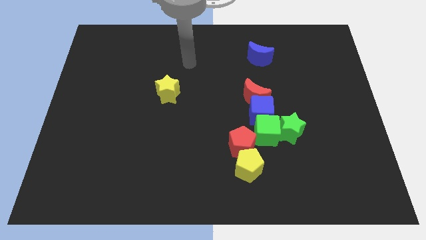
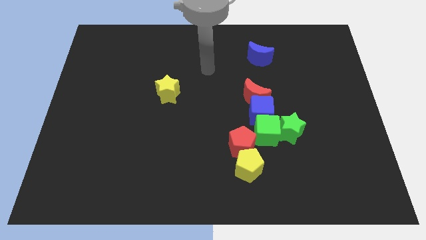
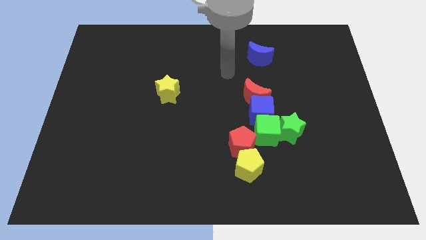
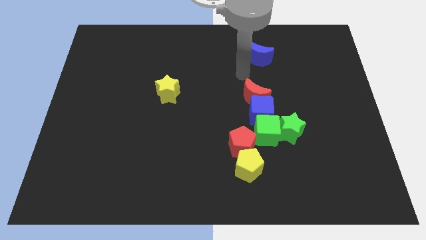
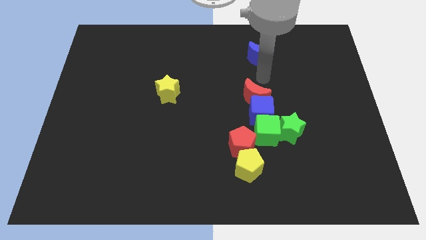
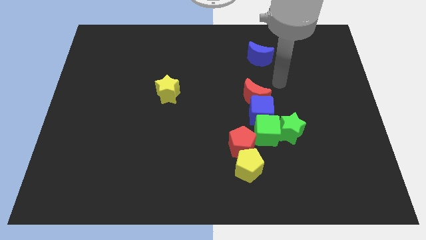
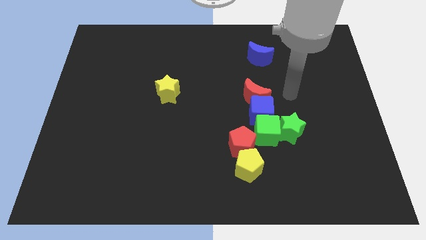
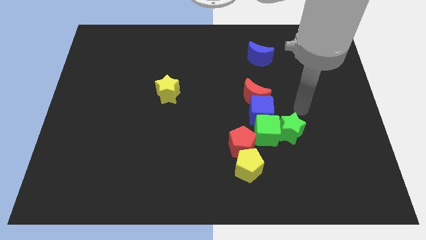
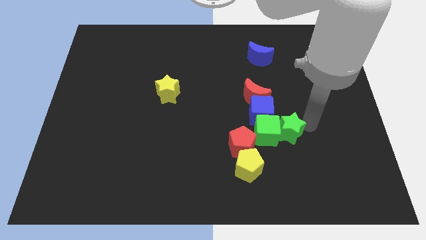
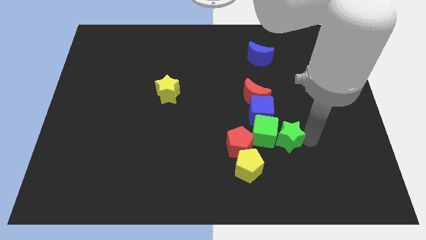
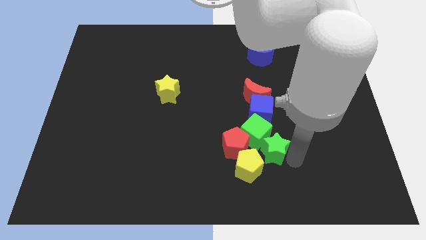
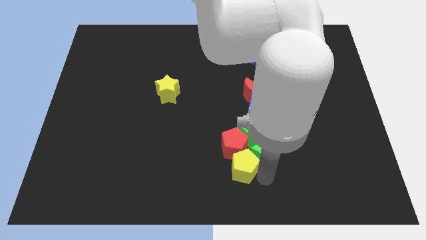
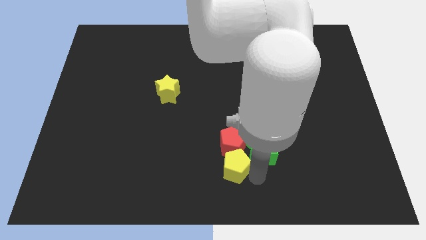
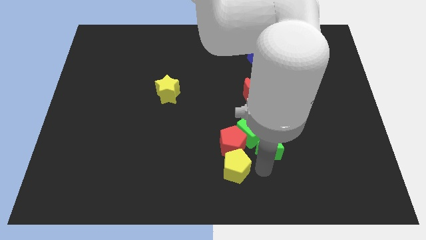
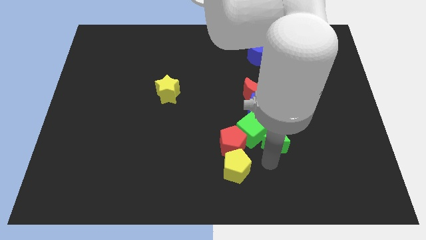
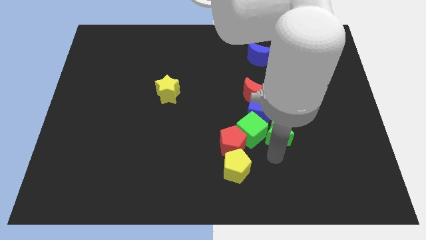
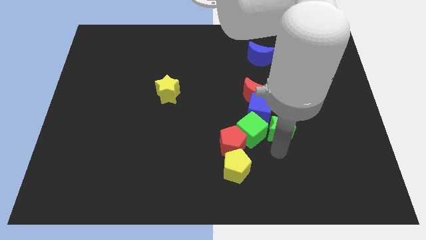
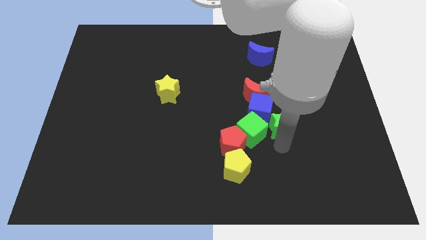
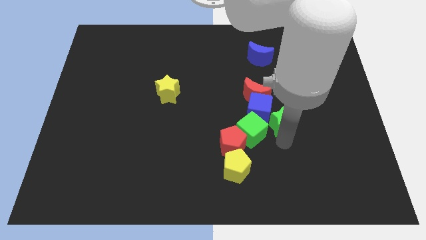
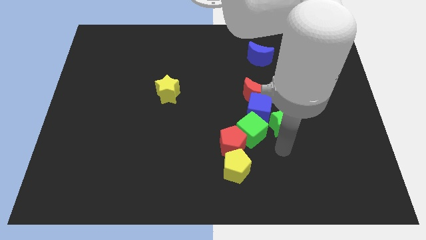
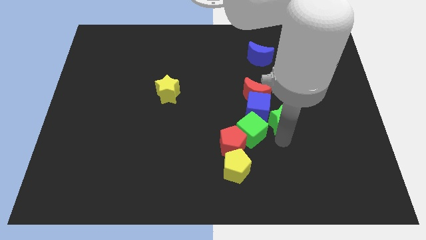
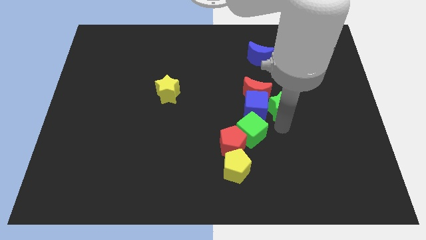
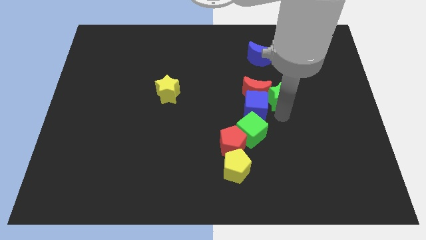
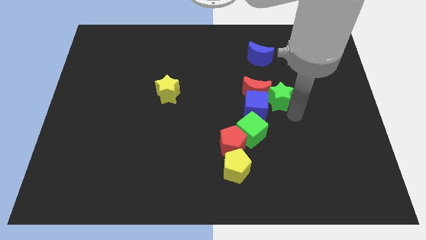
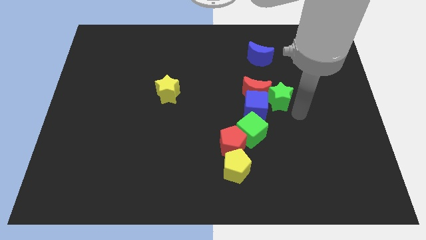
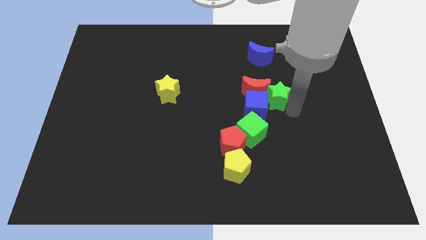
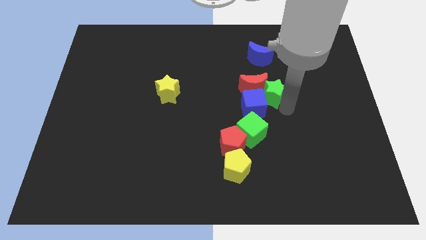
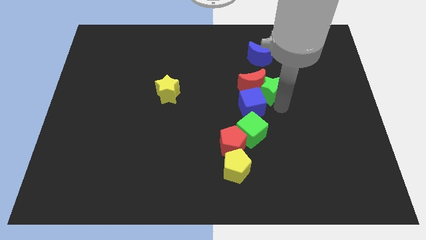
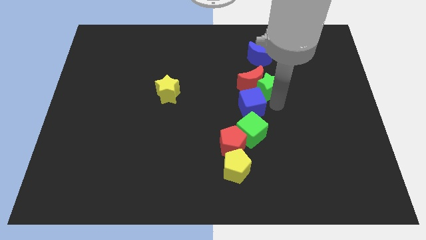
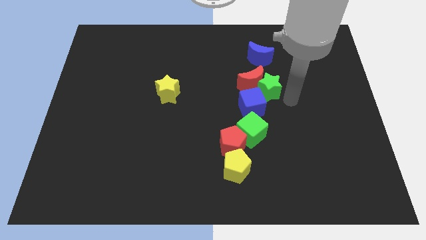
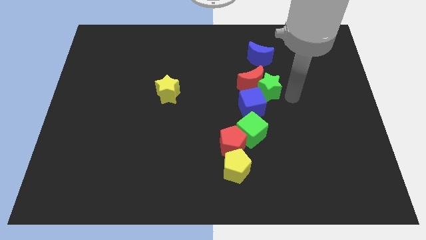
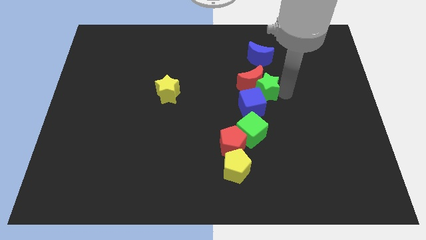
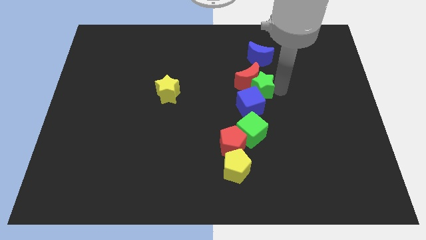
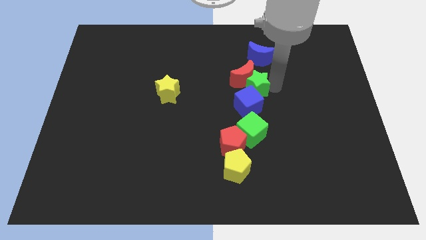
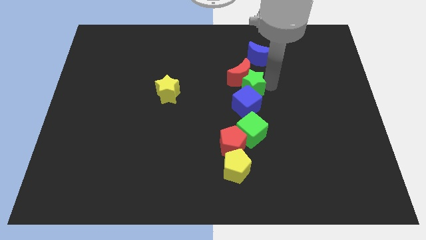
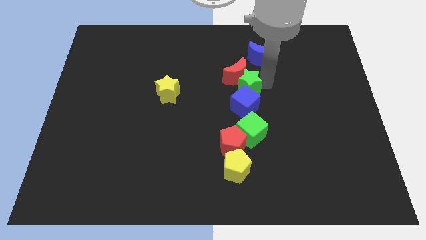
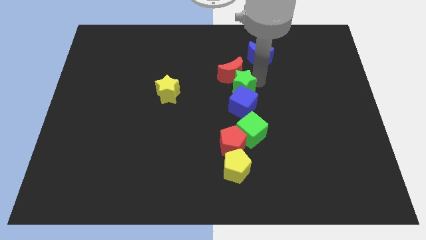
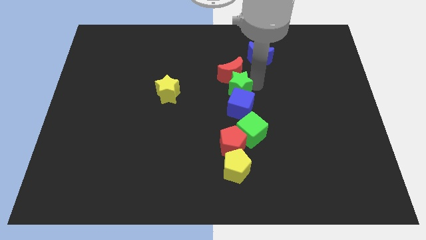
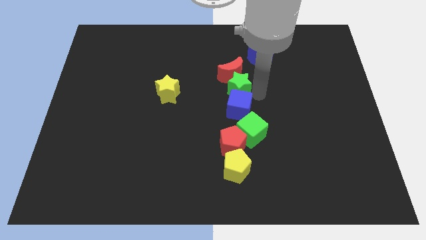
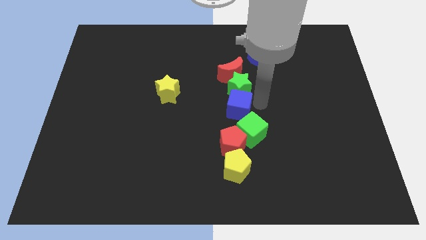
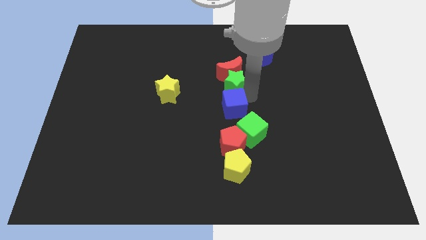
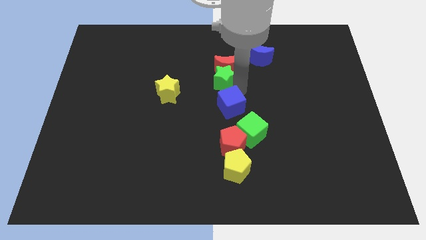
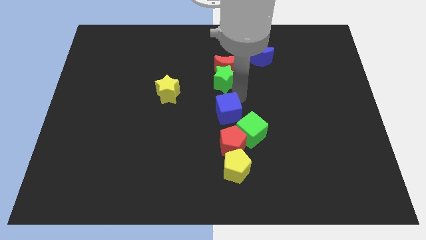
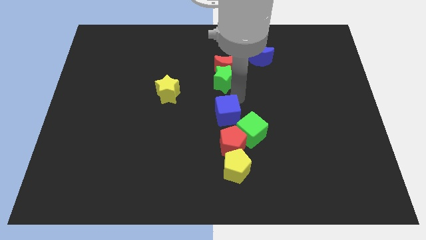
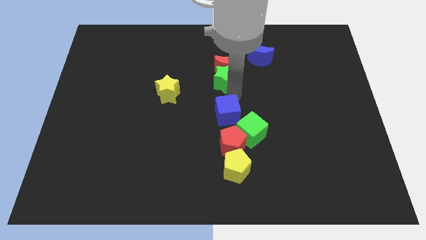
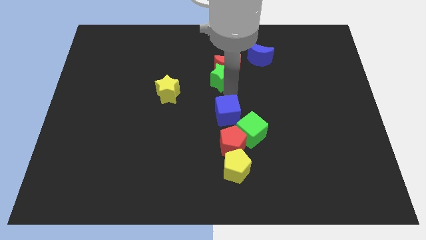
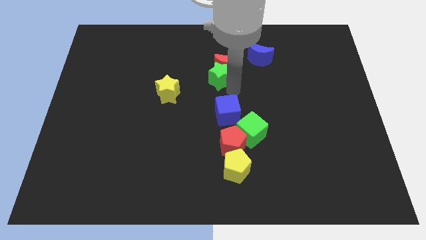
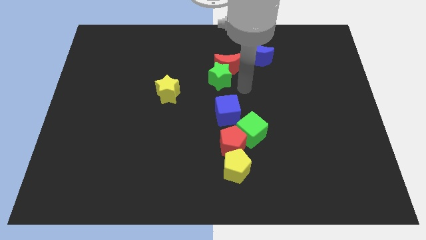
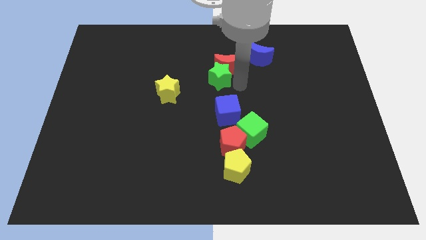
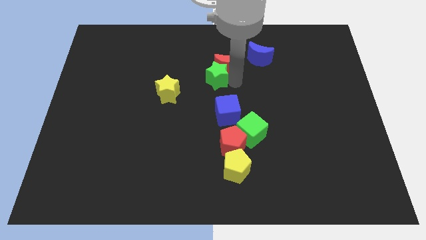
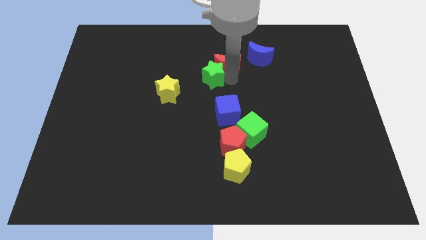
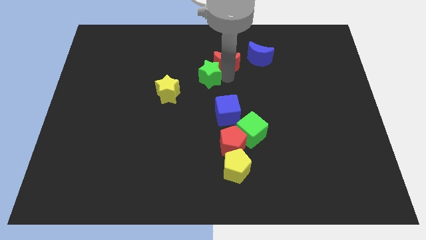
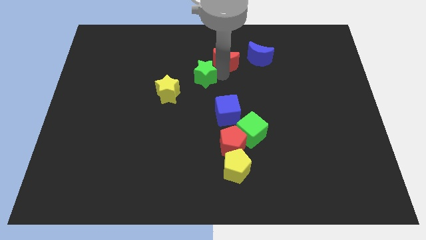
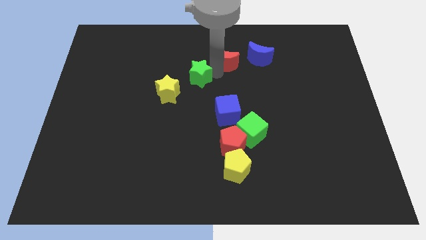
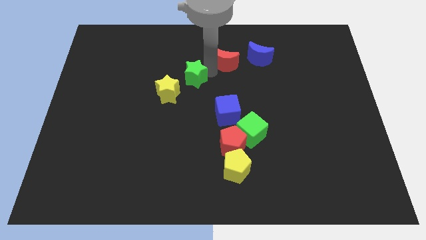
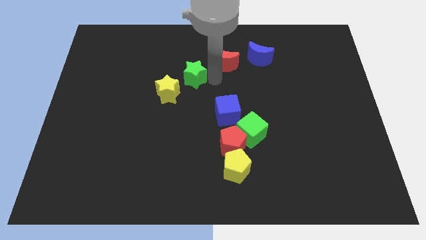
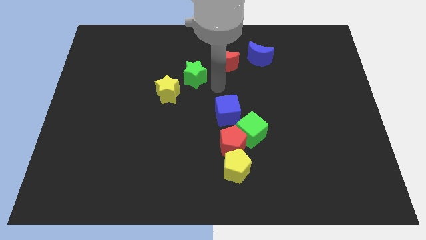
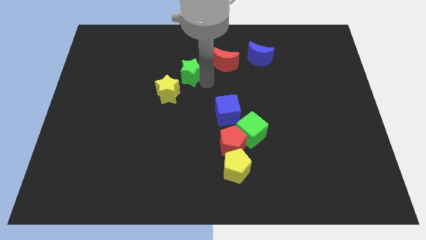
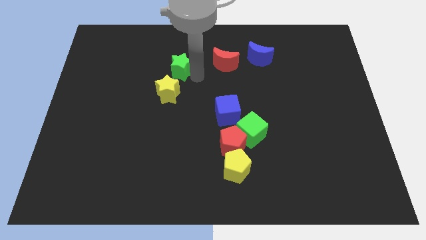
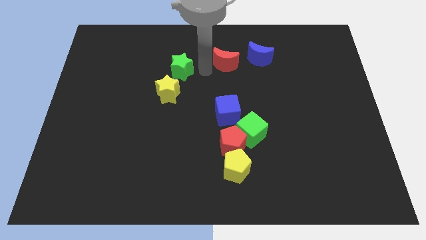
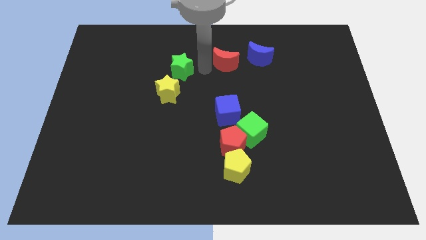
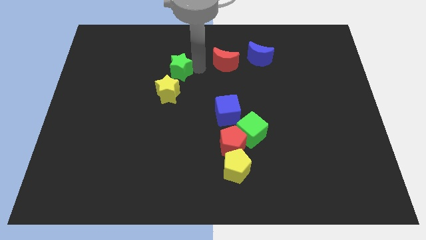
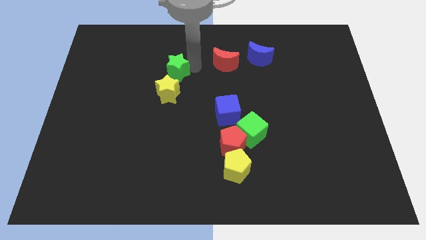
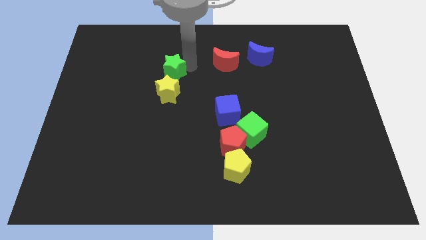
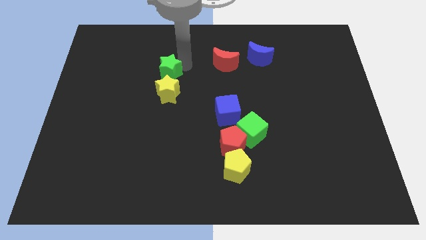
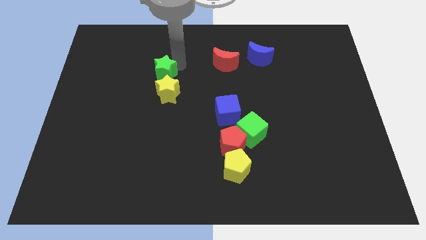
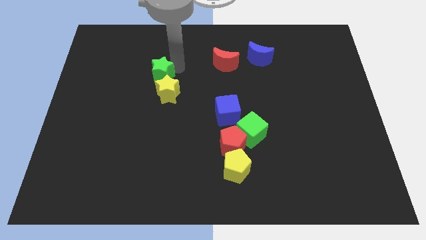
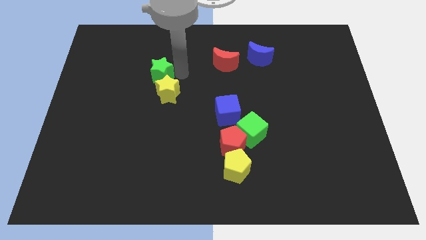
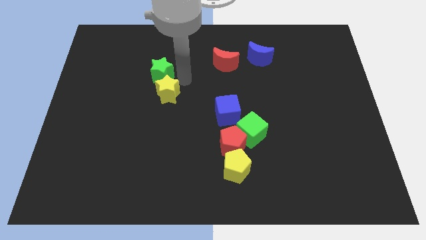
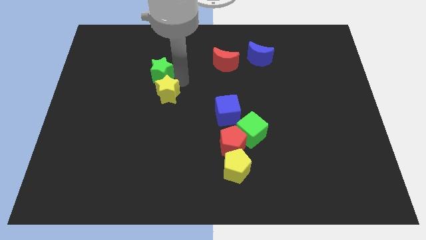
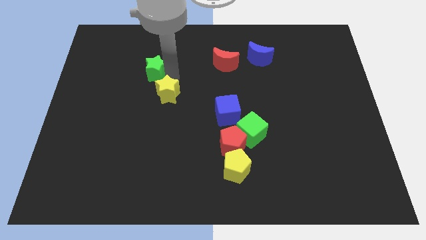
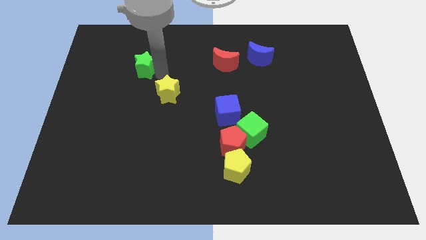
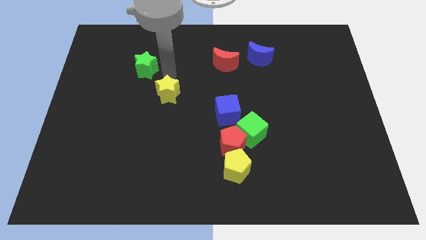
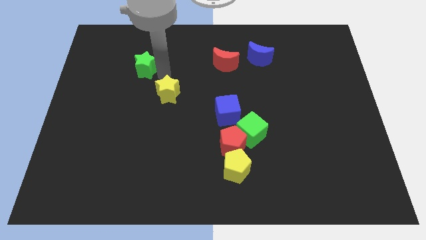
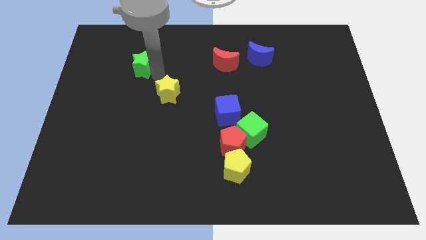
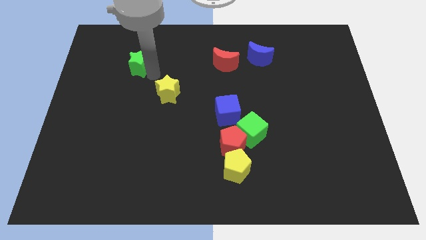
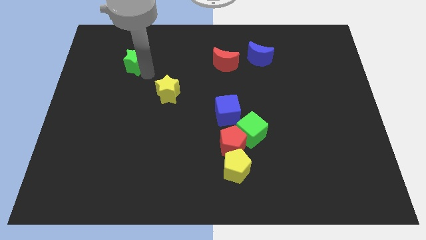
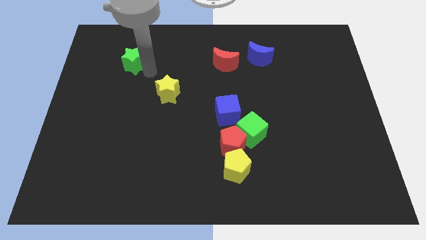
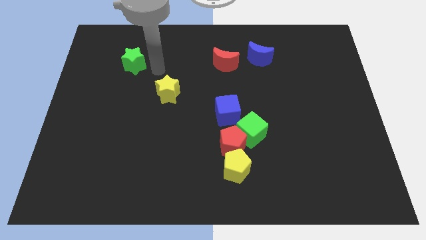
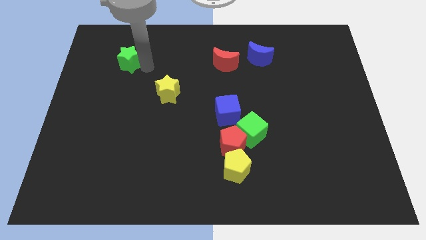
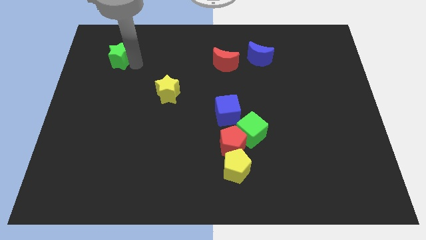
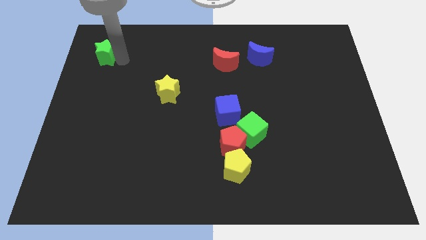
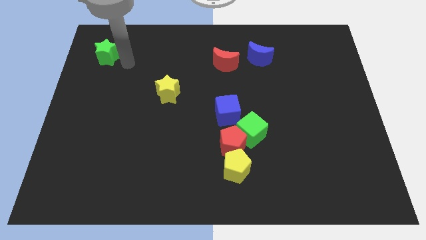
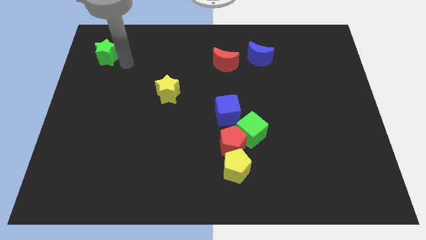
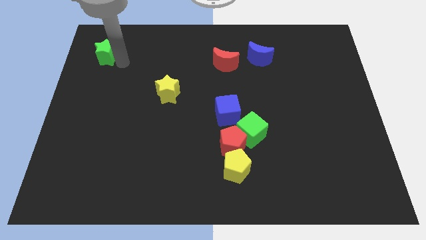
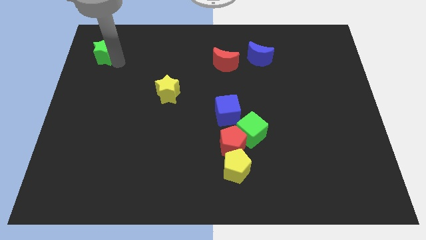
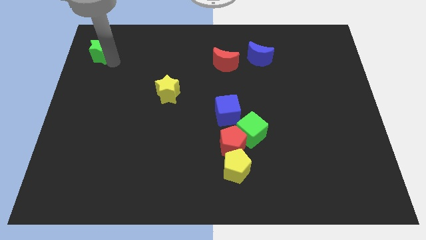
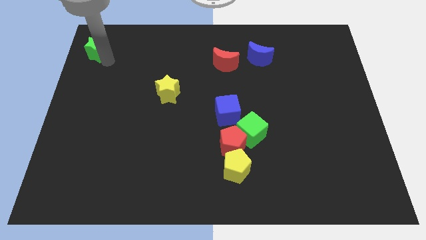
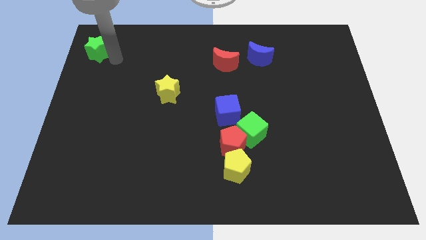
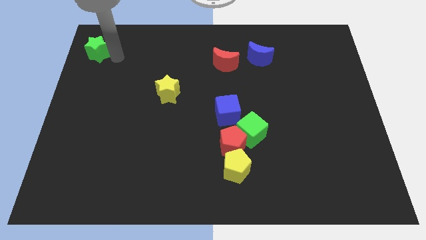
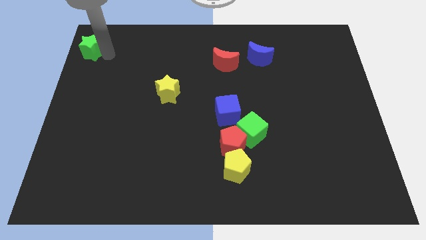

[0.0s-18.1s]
slide the green star to the top left of the board
